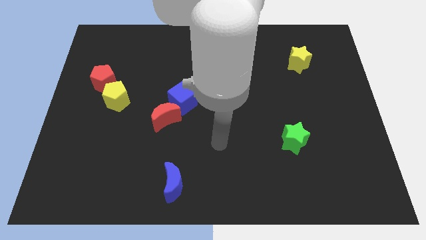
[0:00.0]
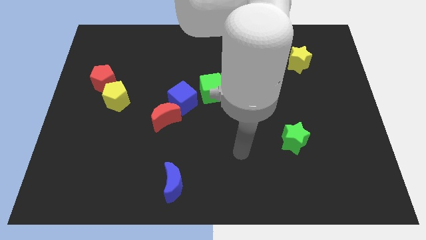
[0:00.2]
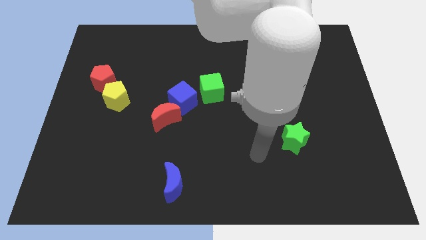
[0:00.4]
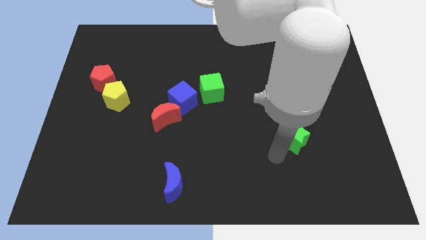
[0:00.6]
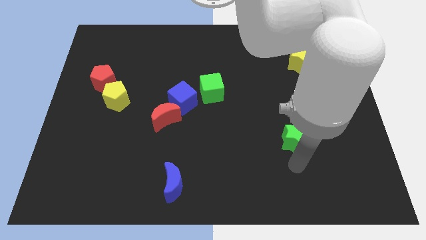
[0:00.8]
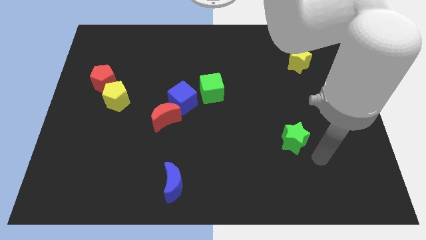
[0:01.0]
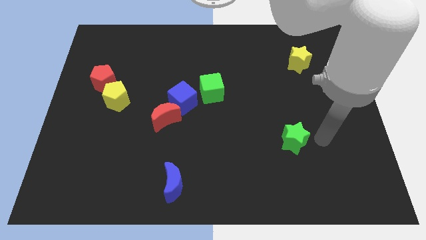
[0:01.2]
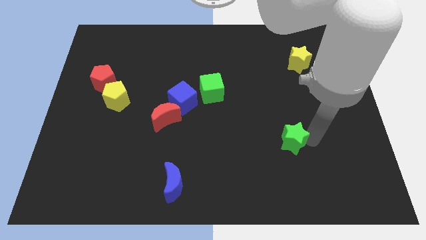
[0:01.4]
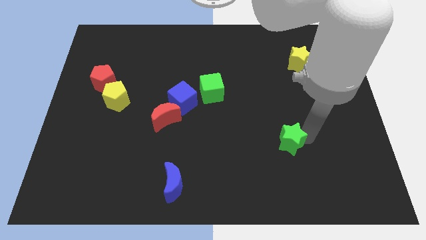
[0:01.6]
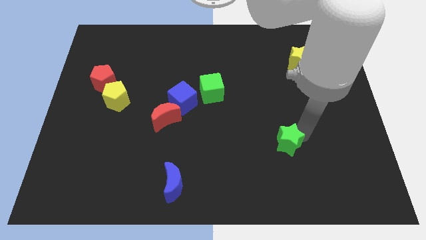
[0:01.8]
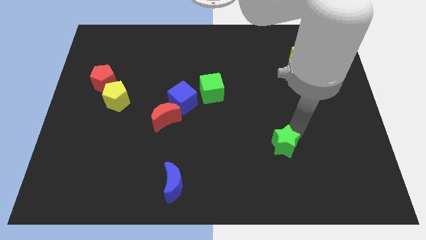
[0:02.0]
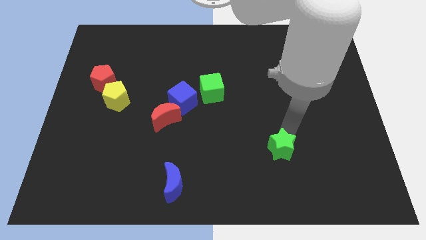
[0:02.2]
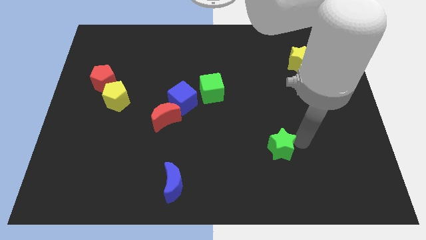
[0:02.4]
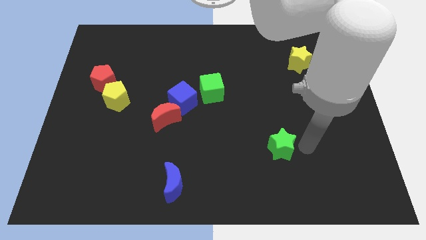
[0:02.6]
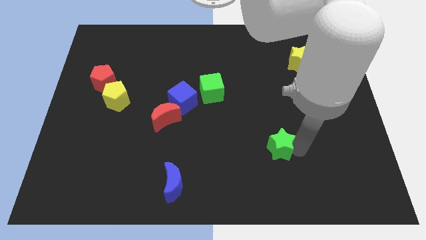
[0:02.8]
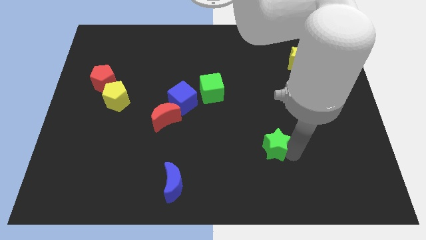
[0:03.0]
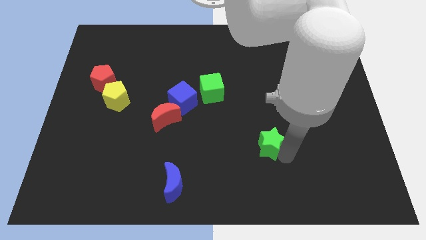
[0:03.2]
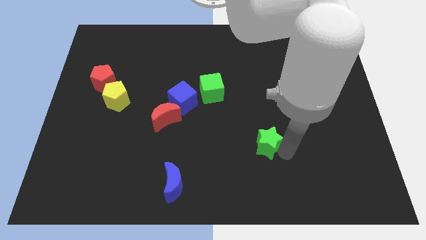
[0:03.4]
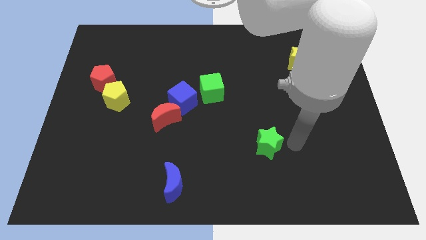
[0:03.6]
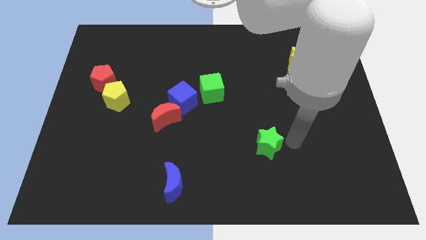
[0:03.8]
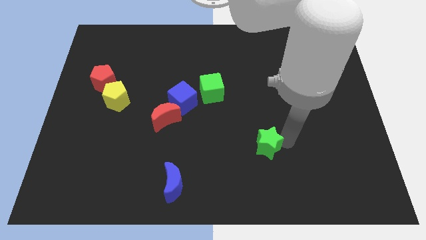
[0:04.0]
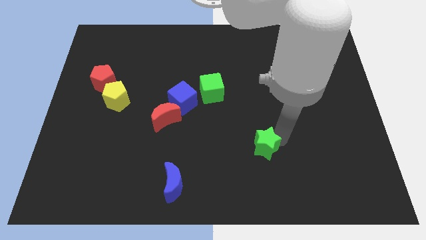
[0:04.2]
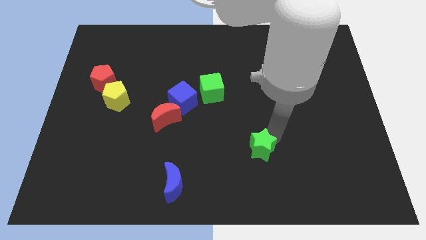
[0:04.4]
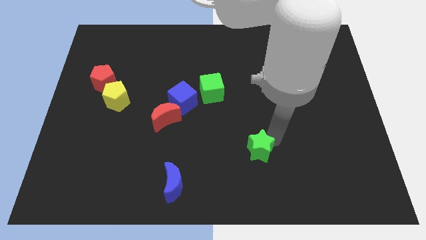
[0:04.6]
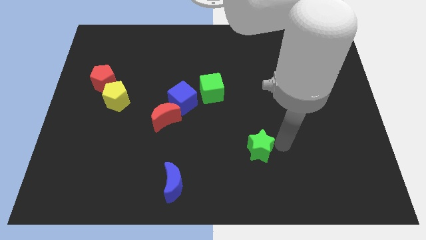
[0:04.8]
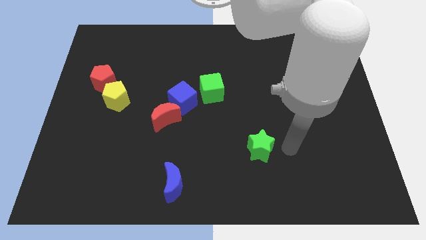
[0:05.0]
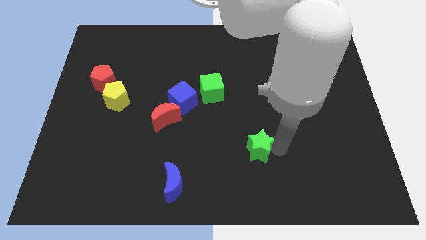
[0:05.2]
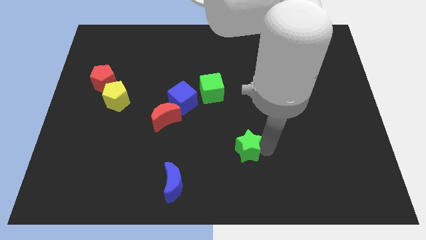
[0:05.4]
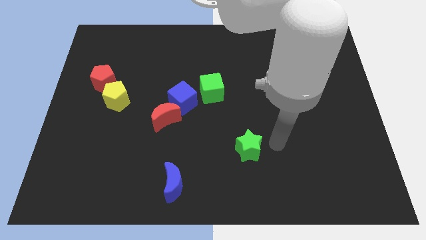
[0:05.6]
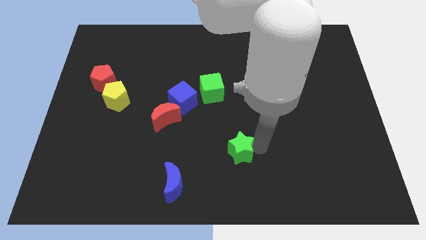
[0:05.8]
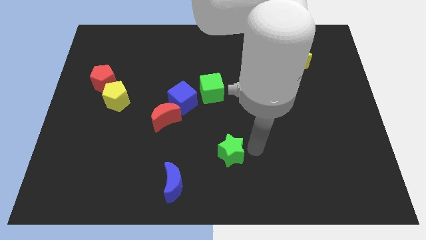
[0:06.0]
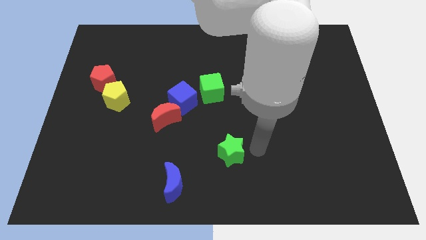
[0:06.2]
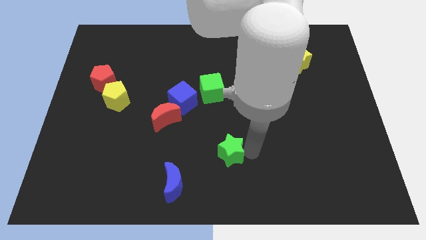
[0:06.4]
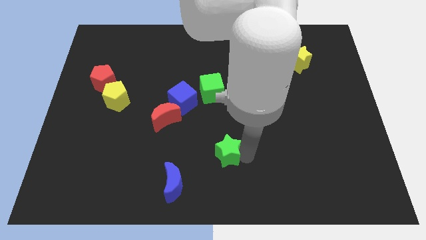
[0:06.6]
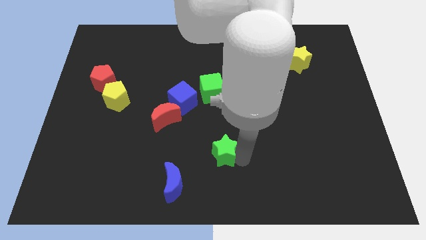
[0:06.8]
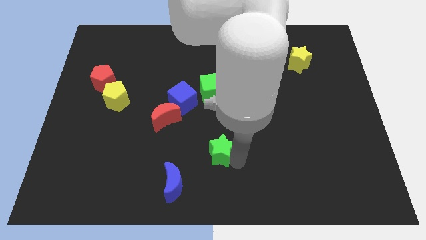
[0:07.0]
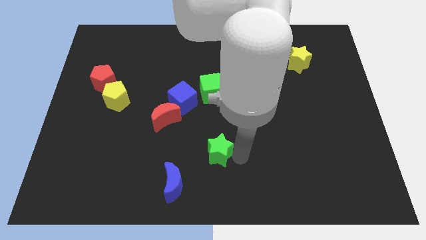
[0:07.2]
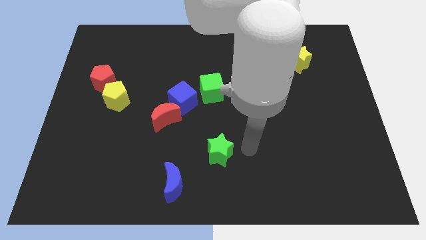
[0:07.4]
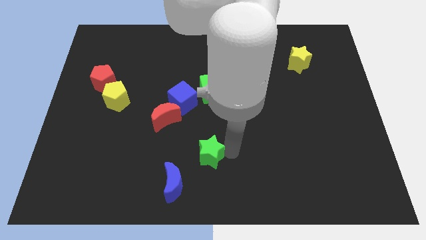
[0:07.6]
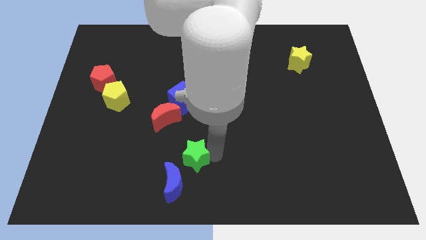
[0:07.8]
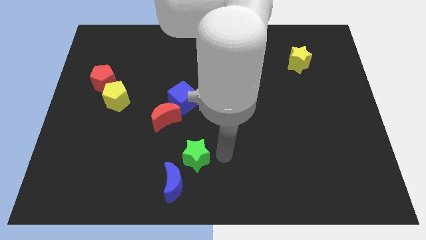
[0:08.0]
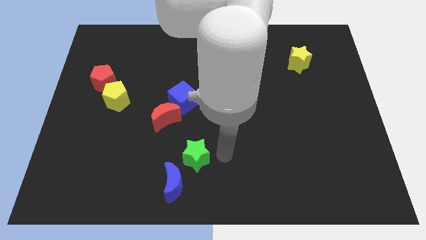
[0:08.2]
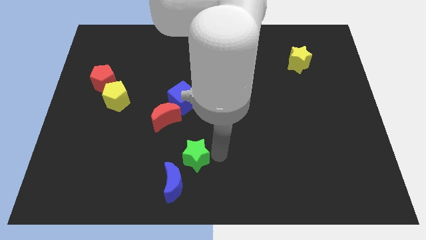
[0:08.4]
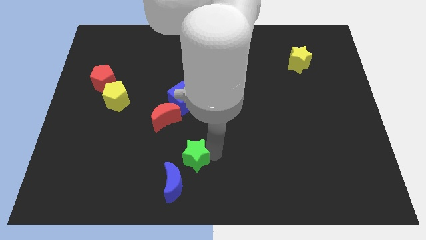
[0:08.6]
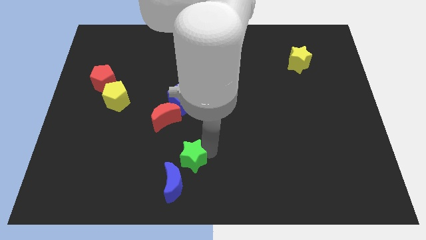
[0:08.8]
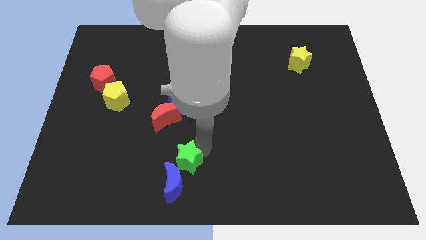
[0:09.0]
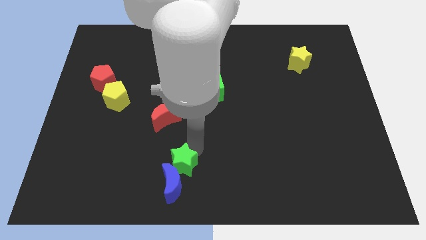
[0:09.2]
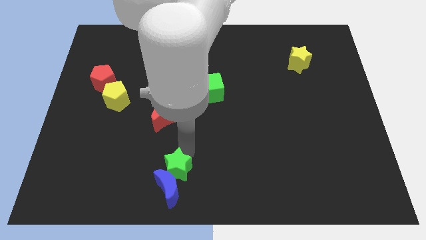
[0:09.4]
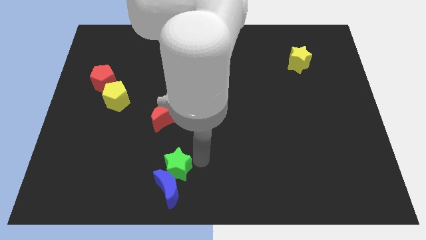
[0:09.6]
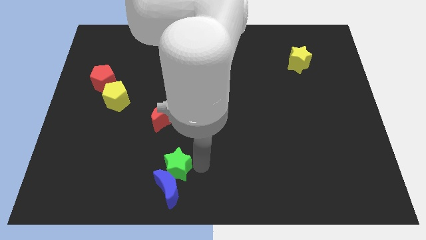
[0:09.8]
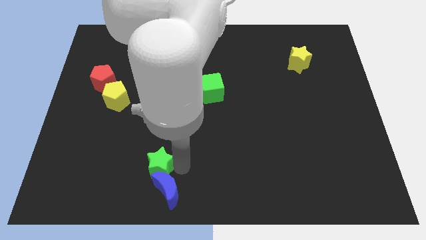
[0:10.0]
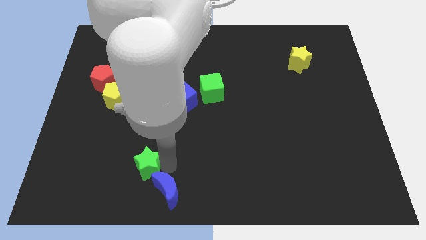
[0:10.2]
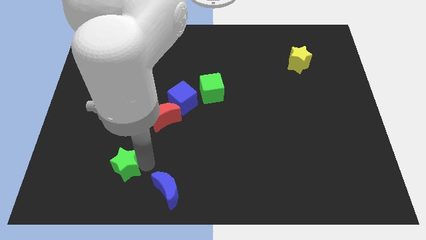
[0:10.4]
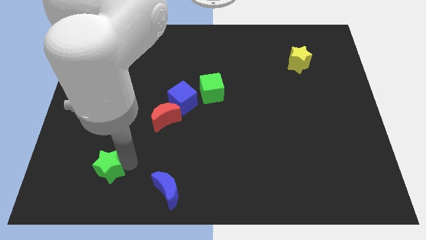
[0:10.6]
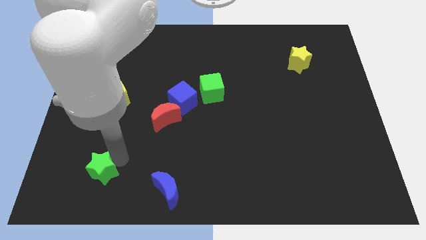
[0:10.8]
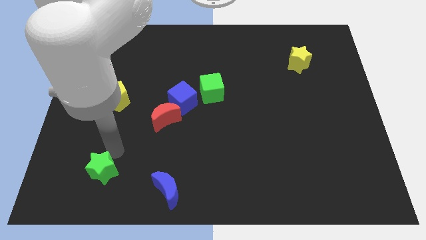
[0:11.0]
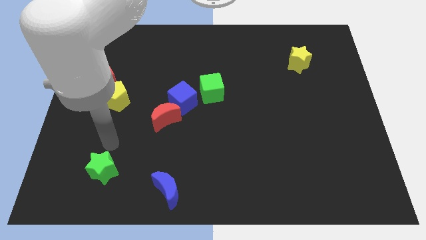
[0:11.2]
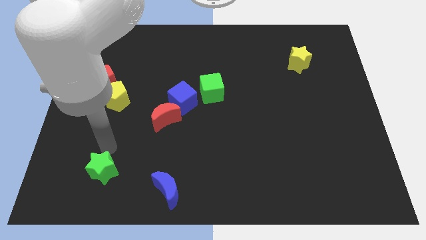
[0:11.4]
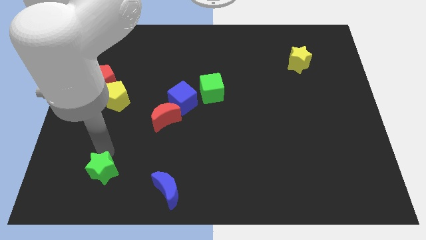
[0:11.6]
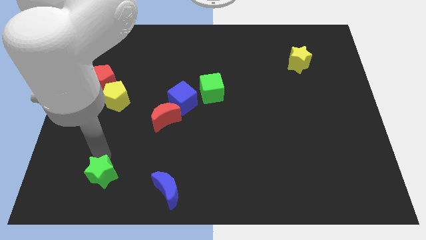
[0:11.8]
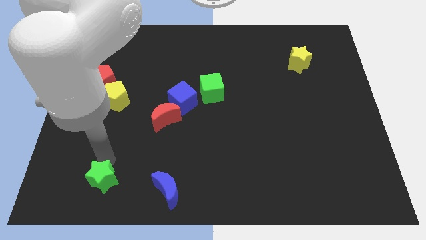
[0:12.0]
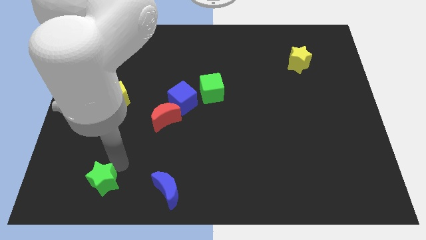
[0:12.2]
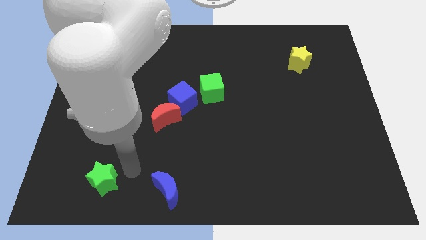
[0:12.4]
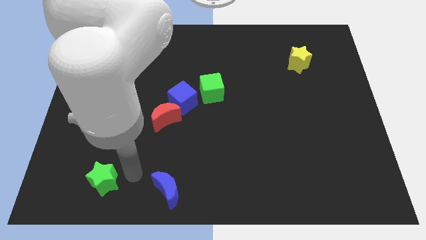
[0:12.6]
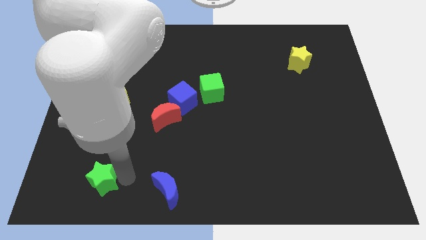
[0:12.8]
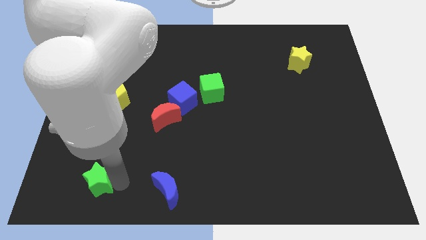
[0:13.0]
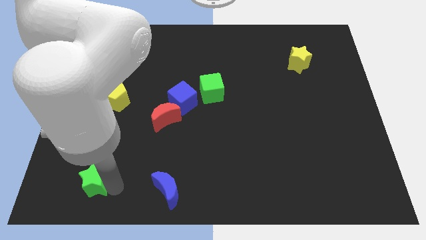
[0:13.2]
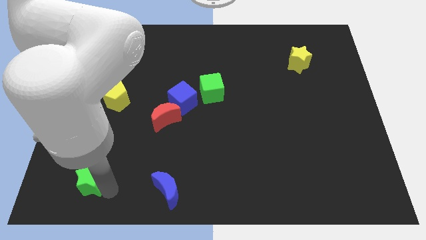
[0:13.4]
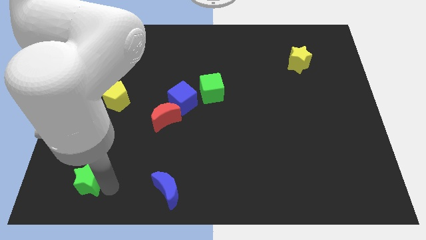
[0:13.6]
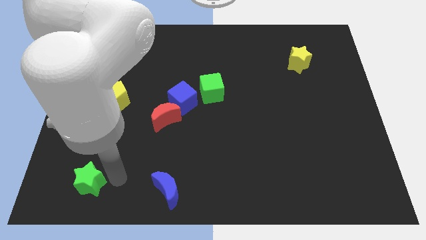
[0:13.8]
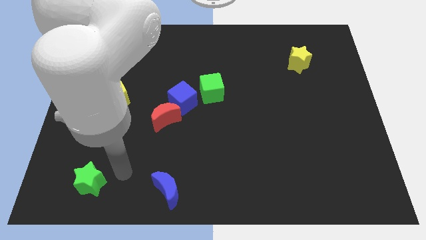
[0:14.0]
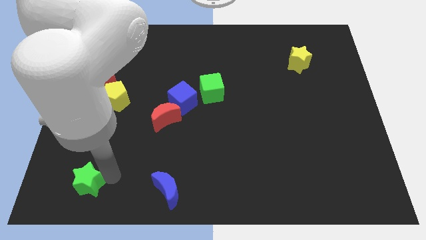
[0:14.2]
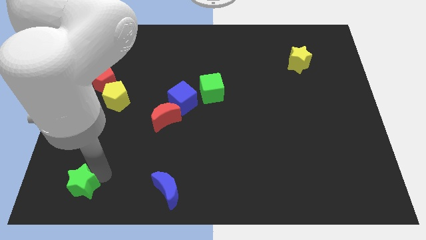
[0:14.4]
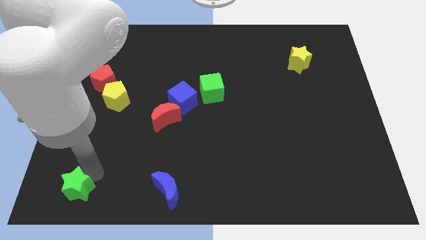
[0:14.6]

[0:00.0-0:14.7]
slide the green star to the lower left corner
